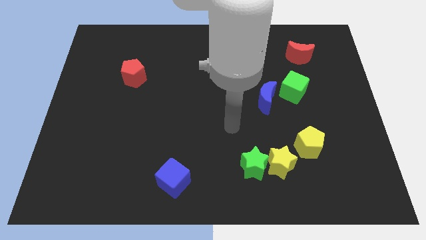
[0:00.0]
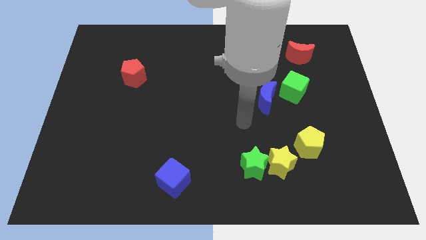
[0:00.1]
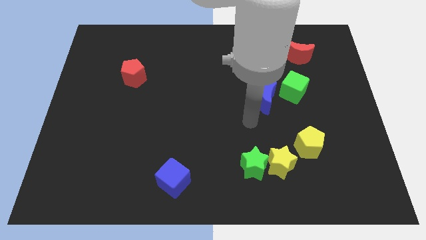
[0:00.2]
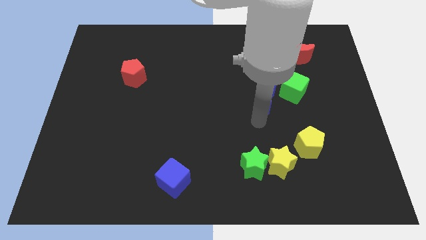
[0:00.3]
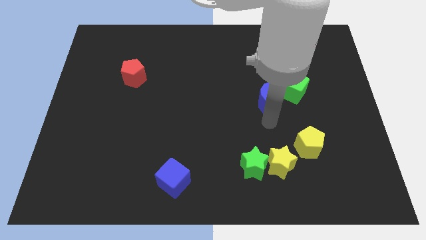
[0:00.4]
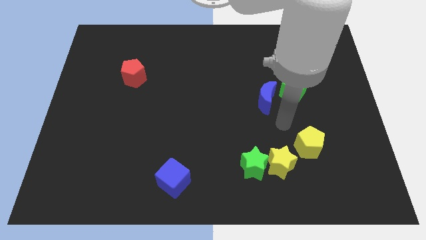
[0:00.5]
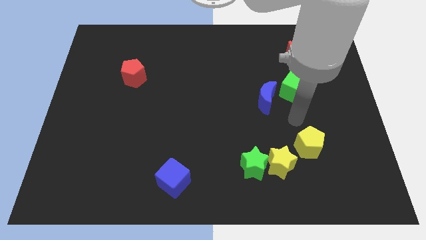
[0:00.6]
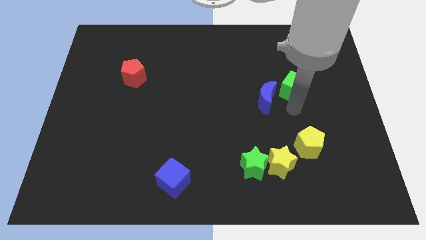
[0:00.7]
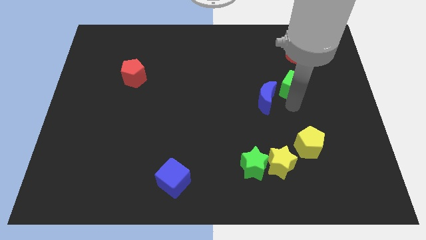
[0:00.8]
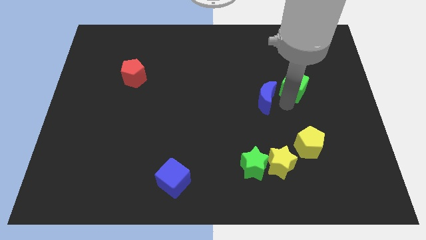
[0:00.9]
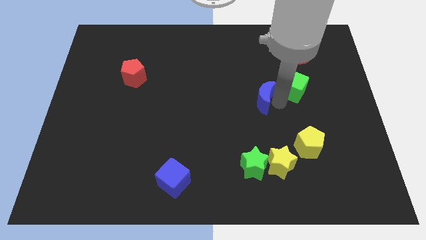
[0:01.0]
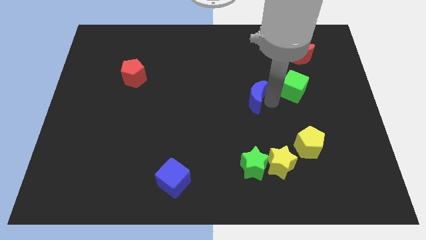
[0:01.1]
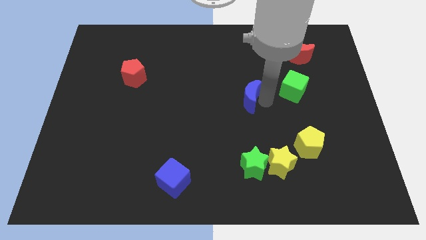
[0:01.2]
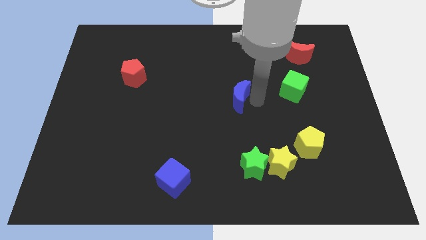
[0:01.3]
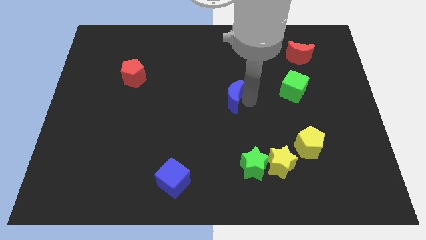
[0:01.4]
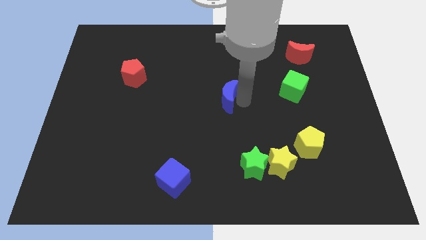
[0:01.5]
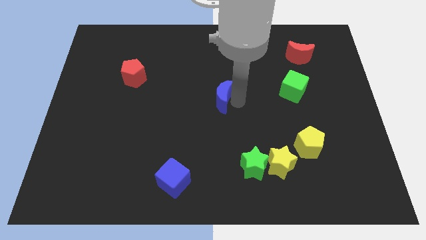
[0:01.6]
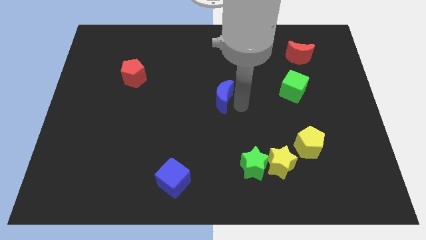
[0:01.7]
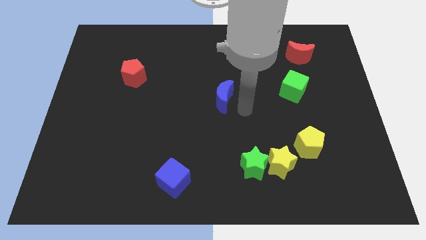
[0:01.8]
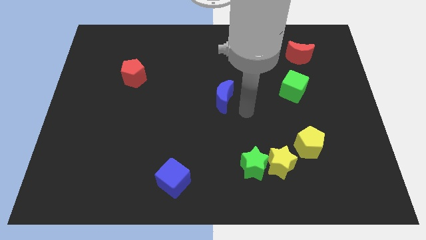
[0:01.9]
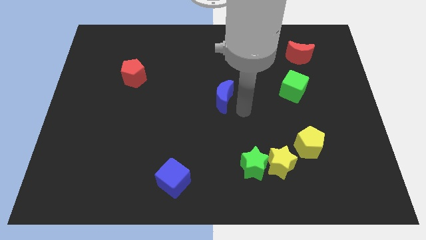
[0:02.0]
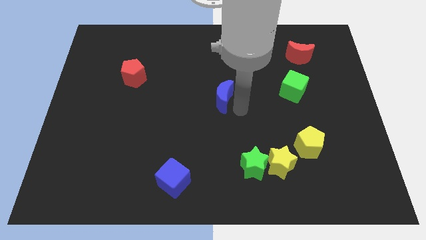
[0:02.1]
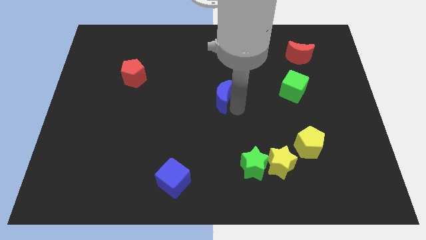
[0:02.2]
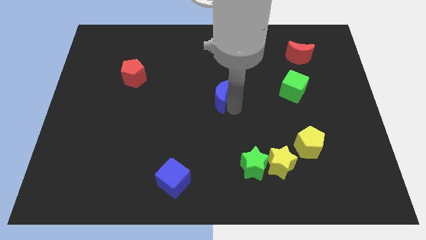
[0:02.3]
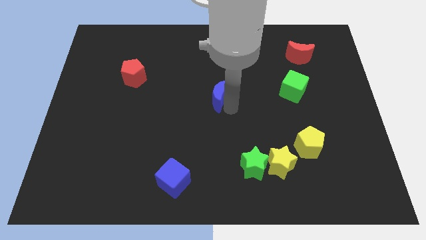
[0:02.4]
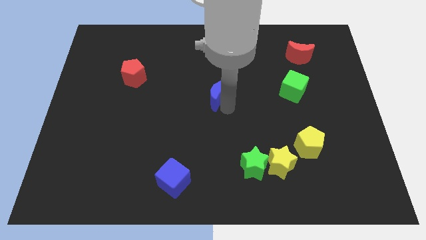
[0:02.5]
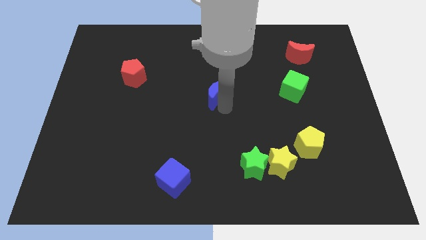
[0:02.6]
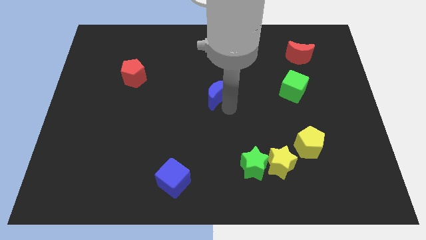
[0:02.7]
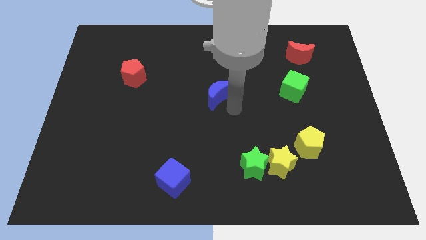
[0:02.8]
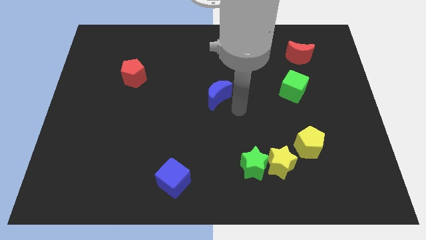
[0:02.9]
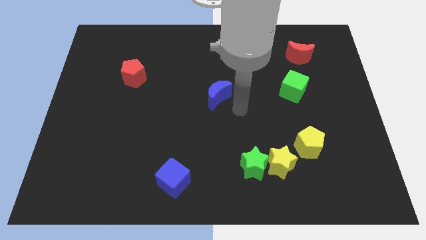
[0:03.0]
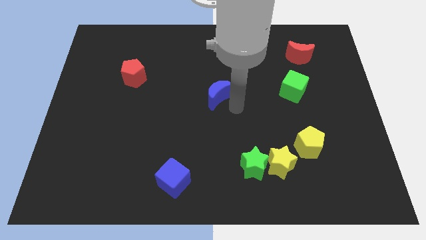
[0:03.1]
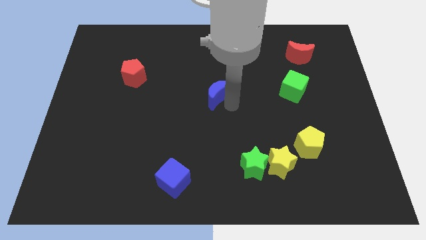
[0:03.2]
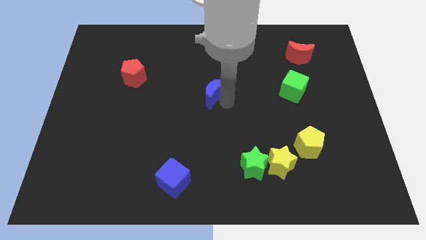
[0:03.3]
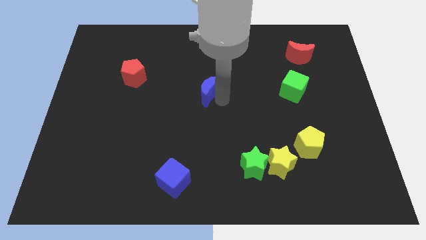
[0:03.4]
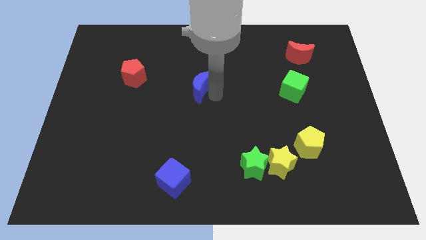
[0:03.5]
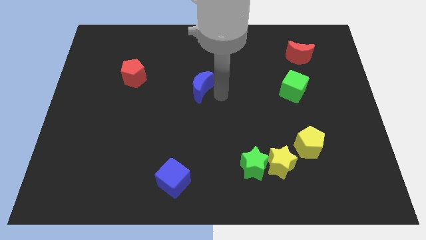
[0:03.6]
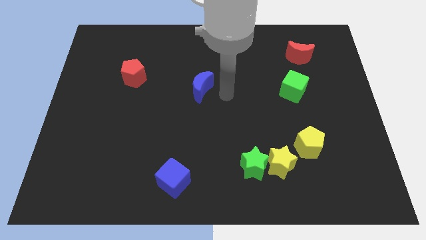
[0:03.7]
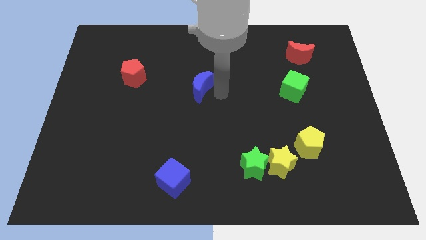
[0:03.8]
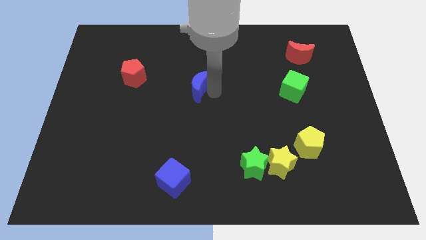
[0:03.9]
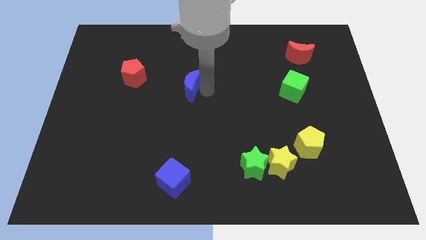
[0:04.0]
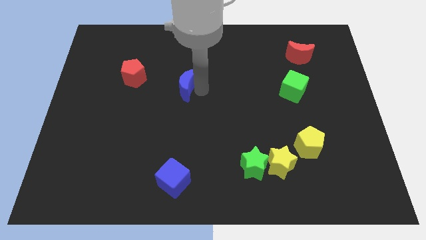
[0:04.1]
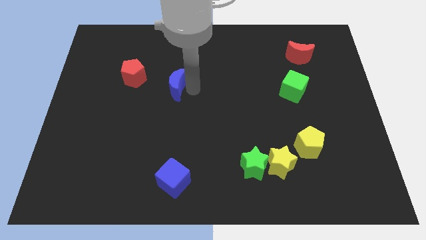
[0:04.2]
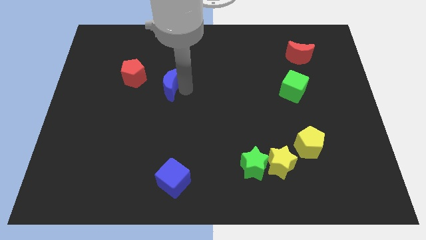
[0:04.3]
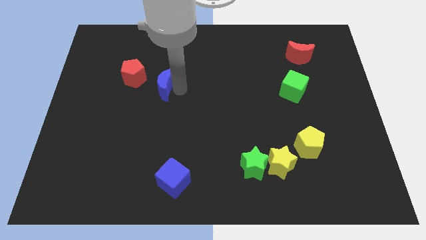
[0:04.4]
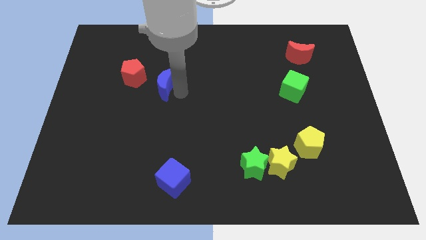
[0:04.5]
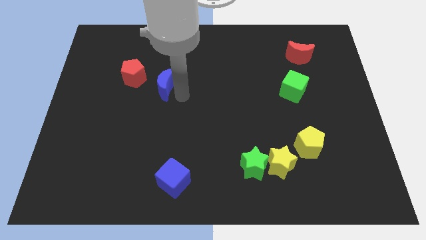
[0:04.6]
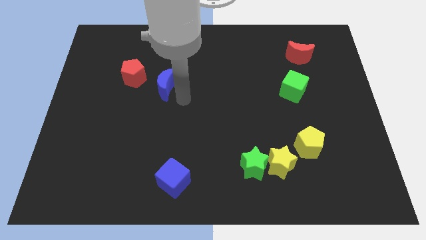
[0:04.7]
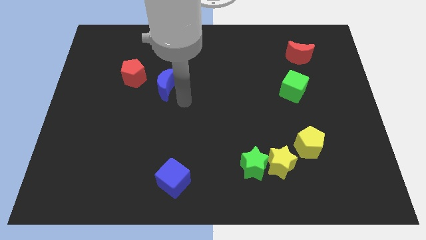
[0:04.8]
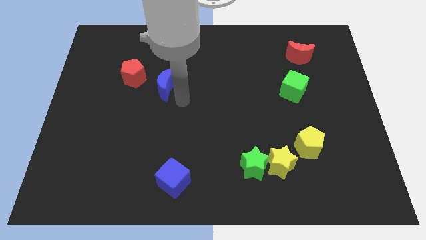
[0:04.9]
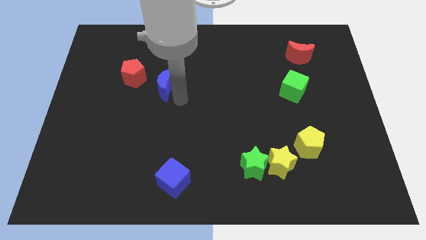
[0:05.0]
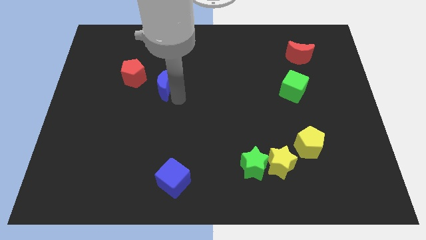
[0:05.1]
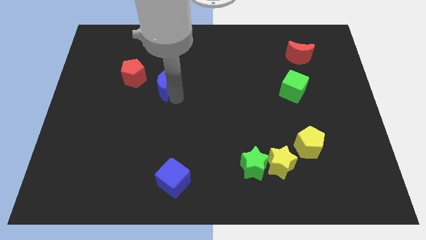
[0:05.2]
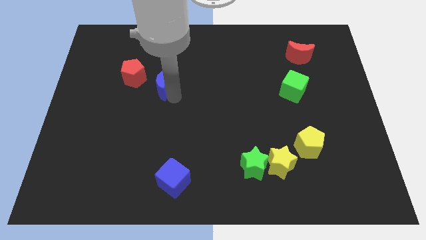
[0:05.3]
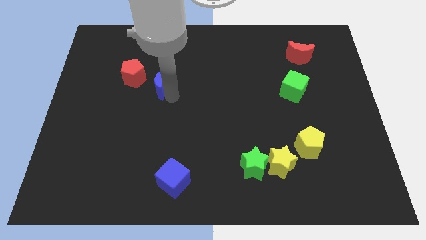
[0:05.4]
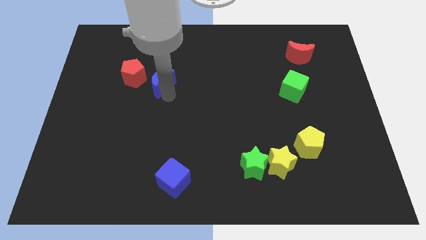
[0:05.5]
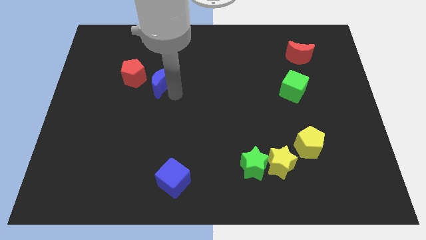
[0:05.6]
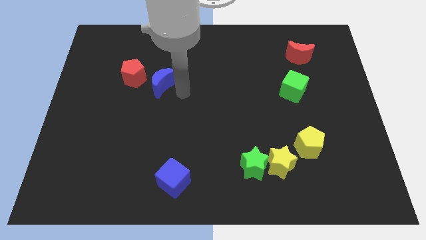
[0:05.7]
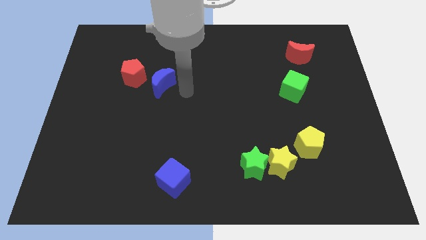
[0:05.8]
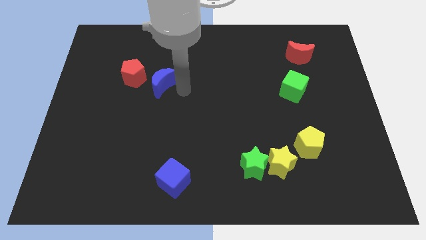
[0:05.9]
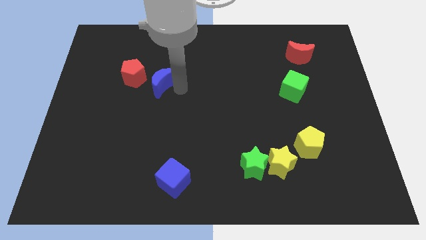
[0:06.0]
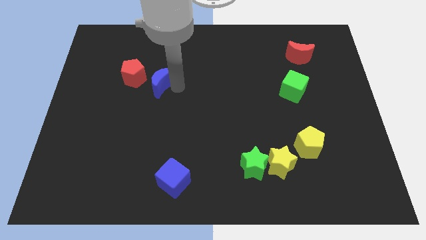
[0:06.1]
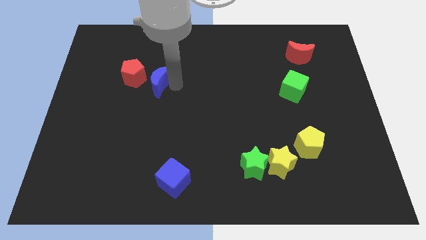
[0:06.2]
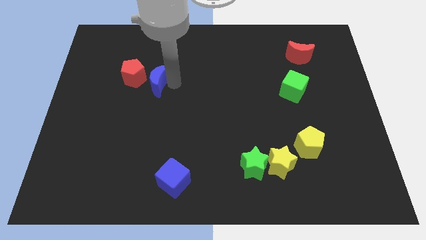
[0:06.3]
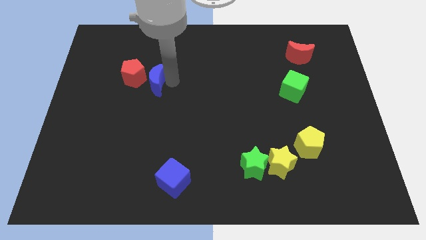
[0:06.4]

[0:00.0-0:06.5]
move the blue moon next to the red pentagon

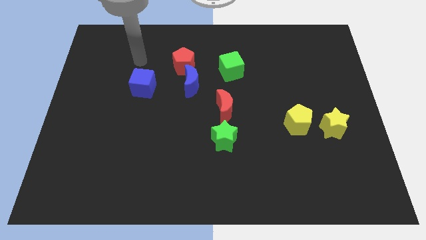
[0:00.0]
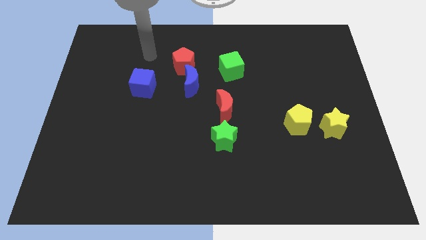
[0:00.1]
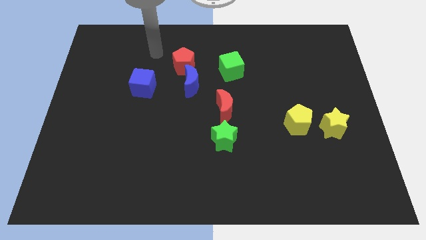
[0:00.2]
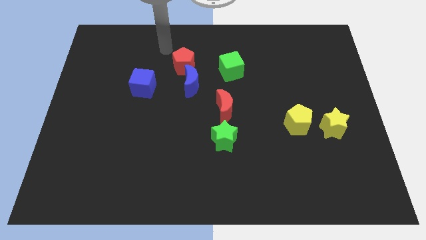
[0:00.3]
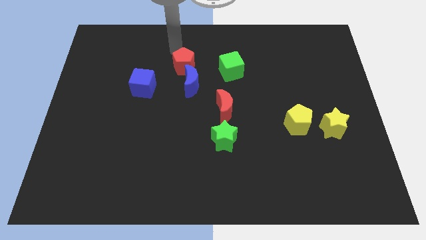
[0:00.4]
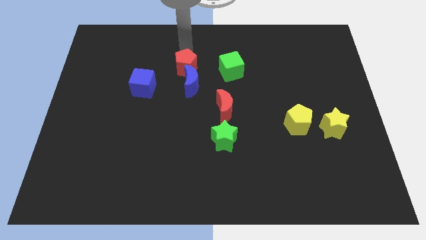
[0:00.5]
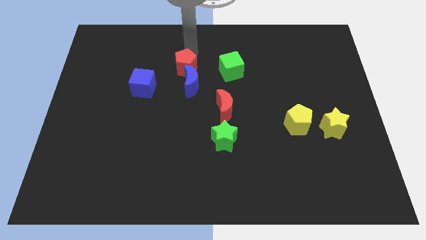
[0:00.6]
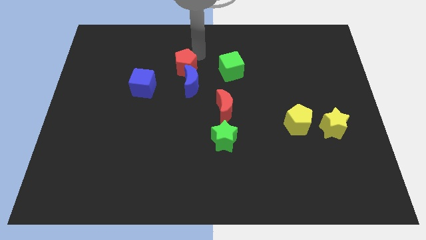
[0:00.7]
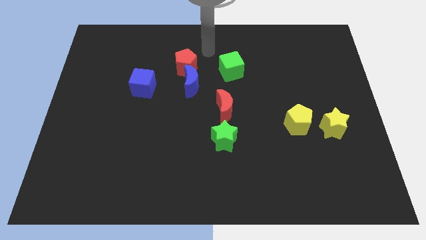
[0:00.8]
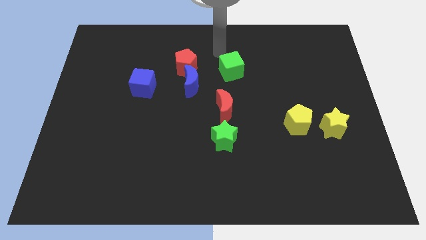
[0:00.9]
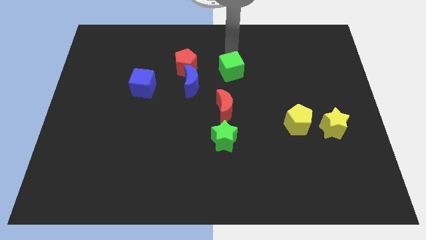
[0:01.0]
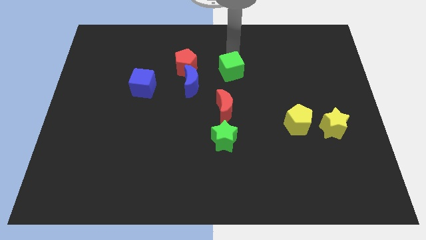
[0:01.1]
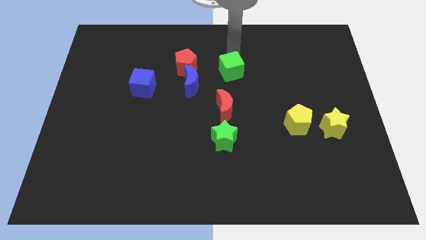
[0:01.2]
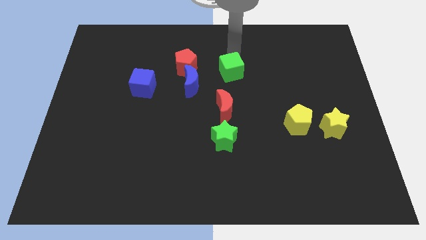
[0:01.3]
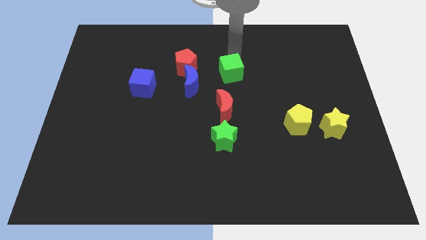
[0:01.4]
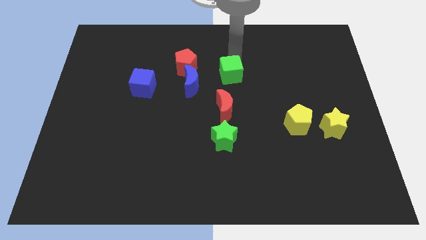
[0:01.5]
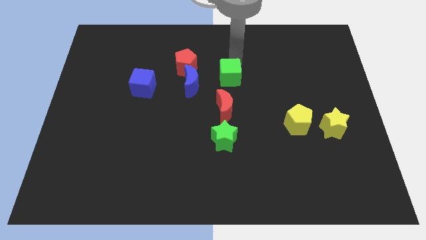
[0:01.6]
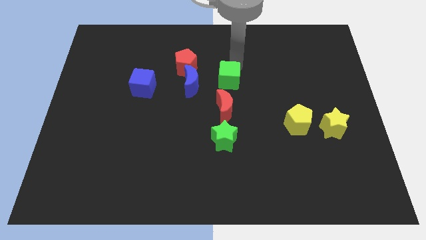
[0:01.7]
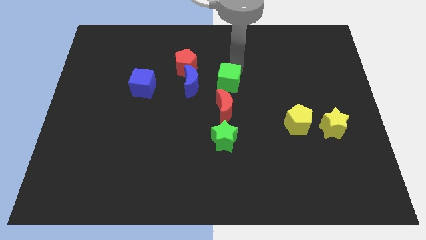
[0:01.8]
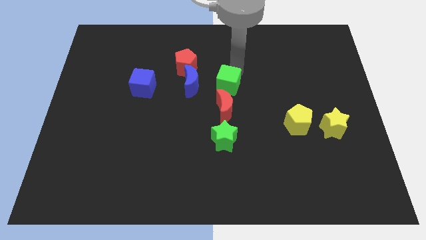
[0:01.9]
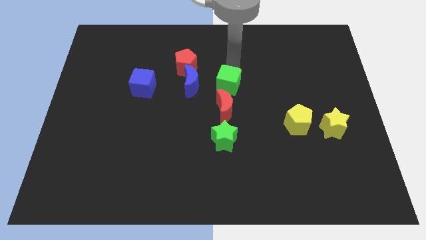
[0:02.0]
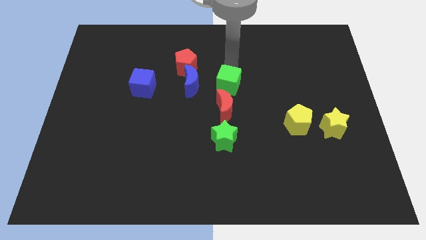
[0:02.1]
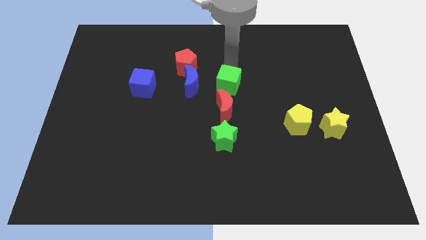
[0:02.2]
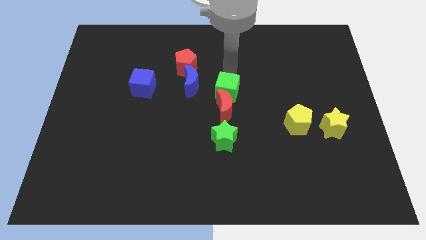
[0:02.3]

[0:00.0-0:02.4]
move the green cube towards the red moon
